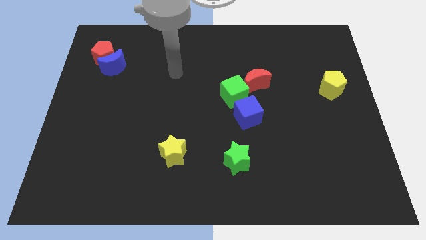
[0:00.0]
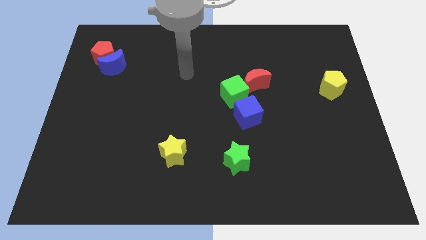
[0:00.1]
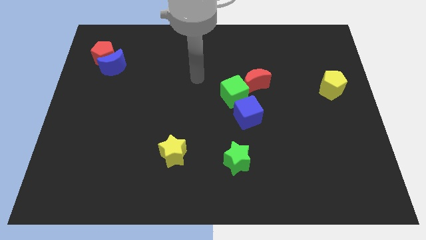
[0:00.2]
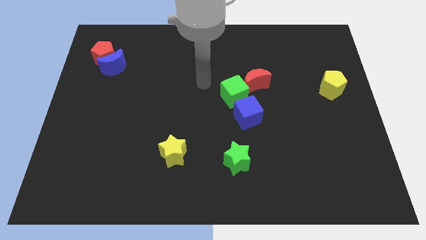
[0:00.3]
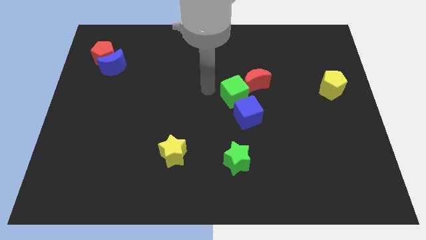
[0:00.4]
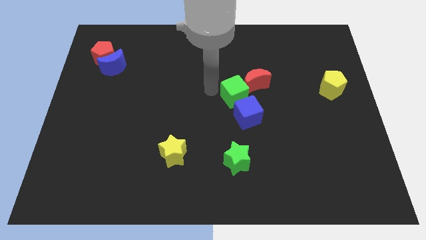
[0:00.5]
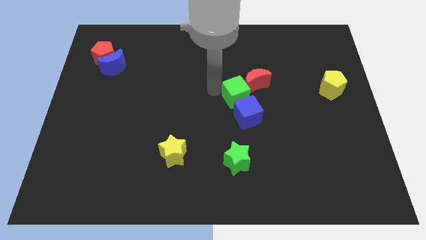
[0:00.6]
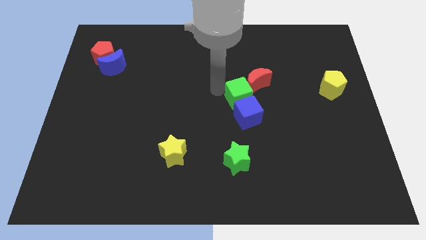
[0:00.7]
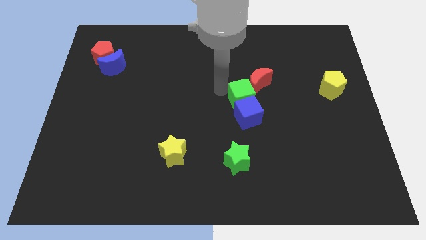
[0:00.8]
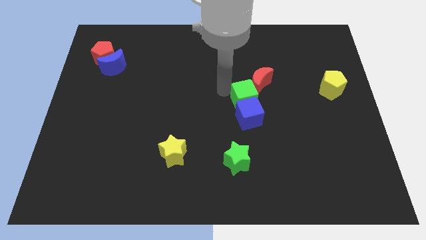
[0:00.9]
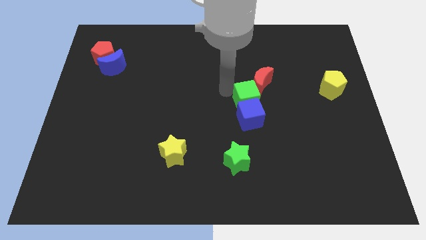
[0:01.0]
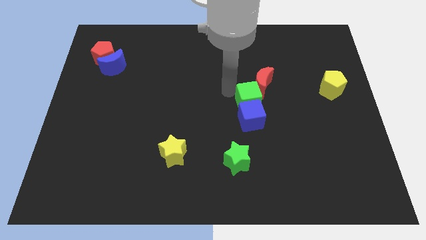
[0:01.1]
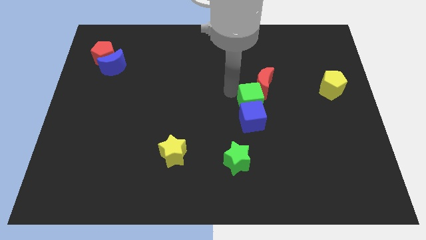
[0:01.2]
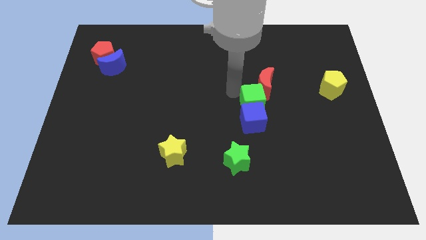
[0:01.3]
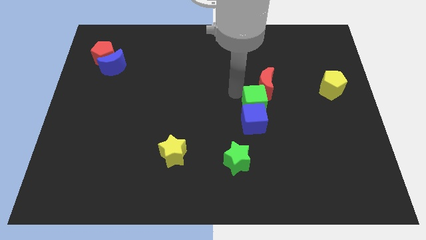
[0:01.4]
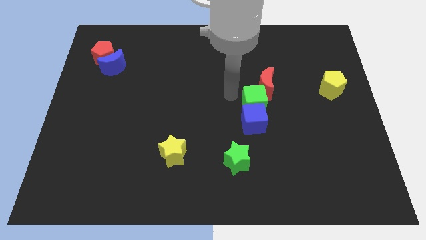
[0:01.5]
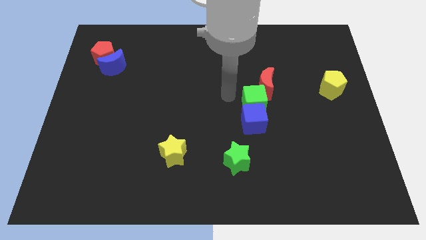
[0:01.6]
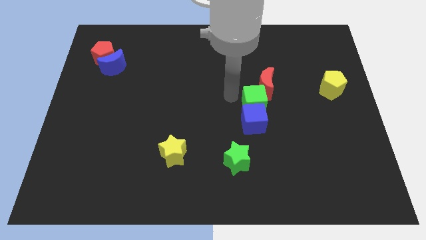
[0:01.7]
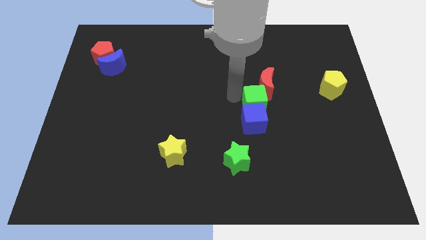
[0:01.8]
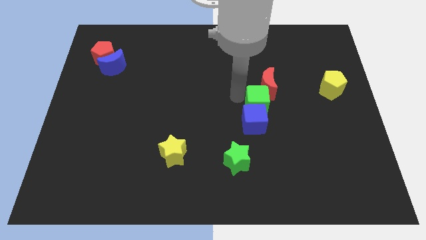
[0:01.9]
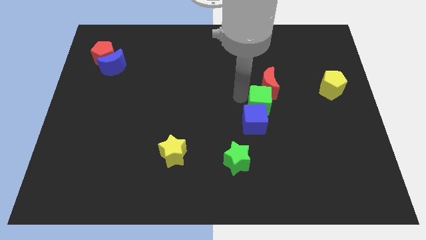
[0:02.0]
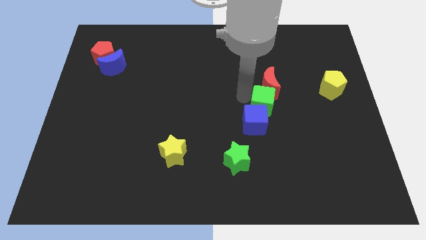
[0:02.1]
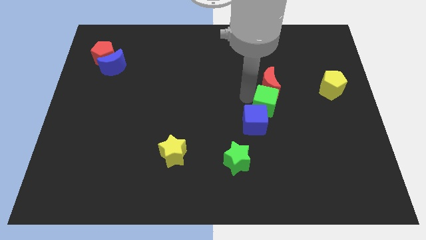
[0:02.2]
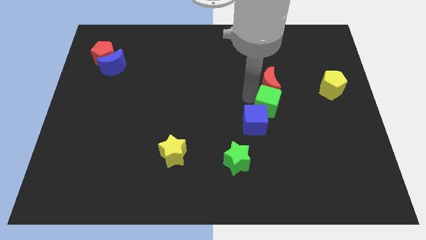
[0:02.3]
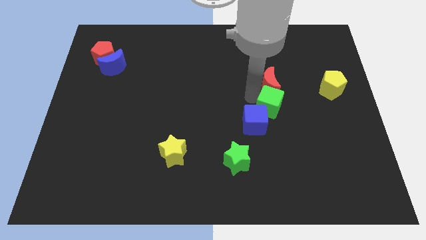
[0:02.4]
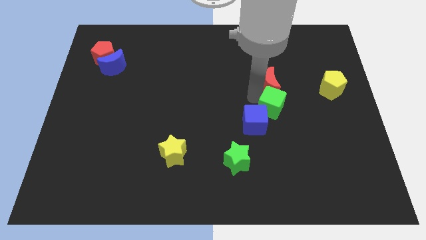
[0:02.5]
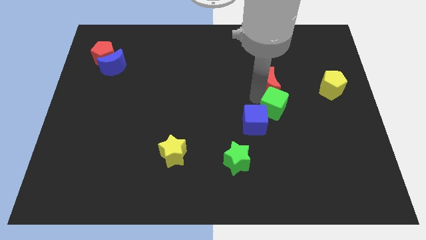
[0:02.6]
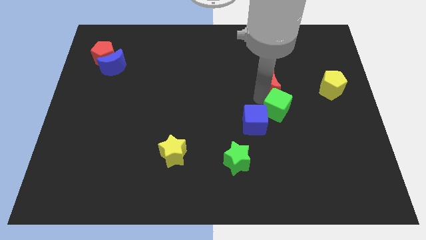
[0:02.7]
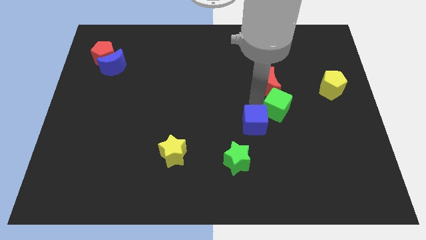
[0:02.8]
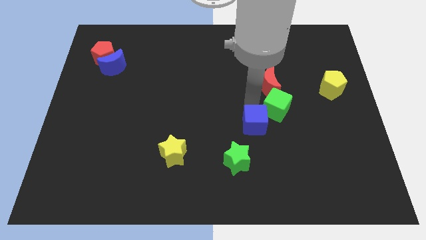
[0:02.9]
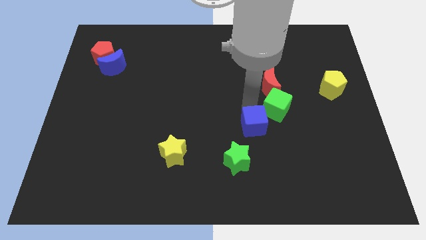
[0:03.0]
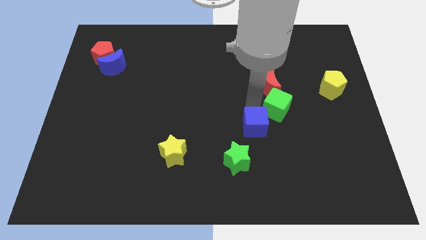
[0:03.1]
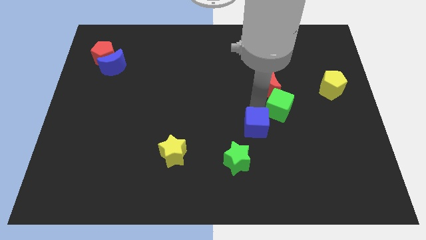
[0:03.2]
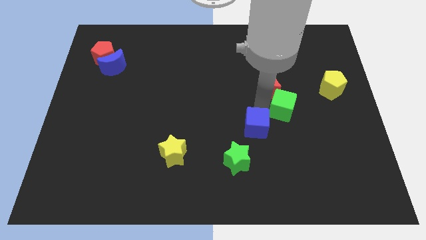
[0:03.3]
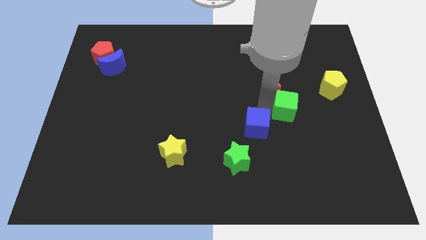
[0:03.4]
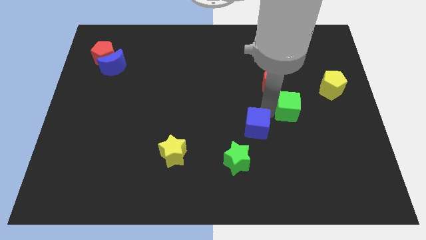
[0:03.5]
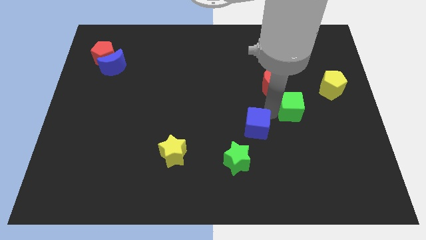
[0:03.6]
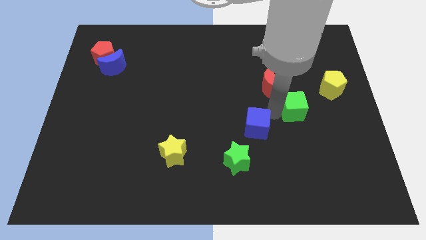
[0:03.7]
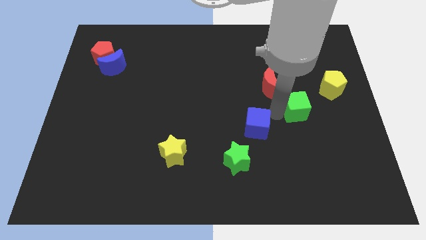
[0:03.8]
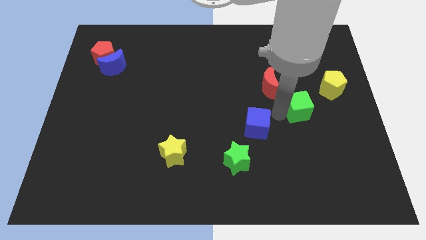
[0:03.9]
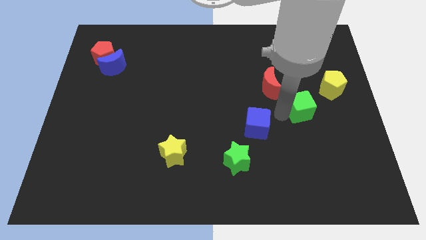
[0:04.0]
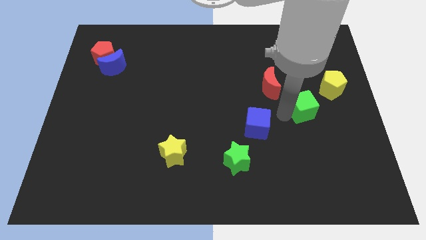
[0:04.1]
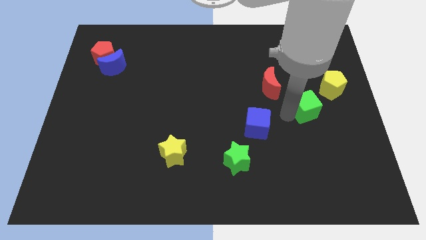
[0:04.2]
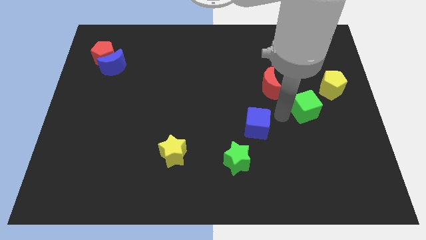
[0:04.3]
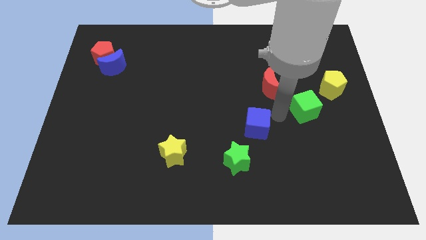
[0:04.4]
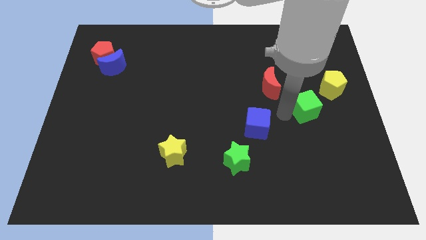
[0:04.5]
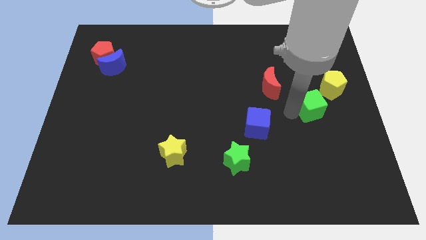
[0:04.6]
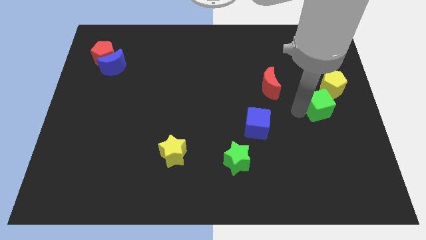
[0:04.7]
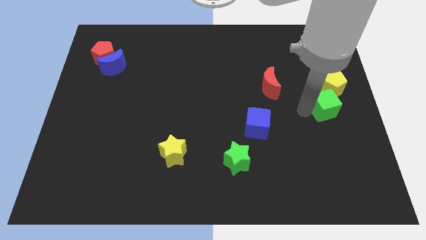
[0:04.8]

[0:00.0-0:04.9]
put the green cube to the center right

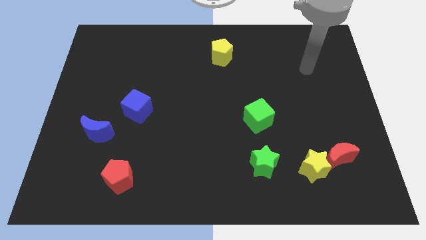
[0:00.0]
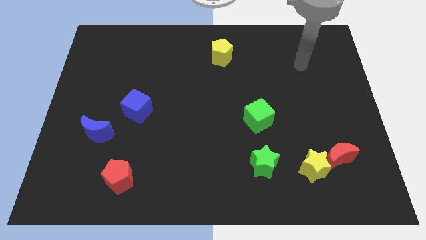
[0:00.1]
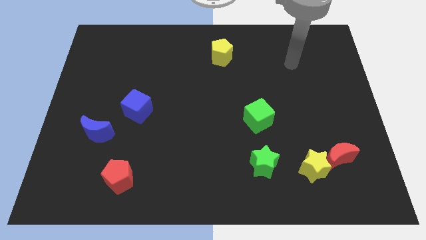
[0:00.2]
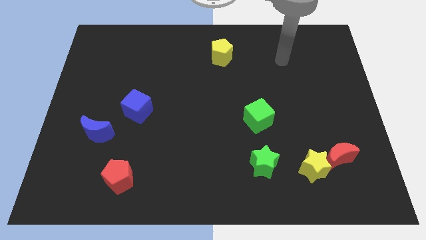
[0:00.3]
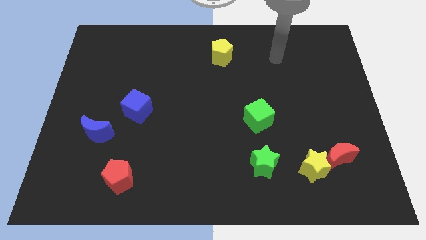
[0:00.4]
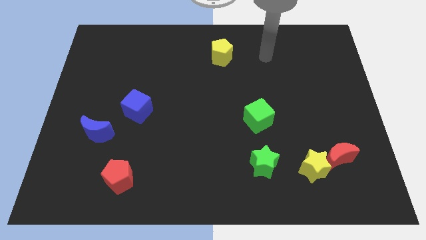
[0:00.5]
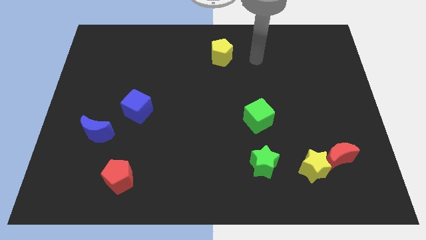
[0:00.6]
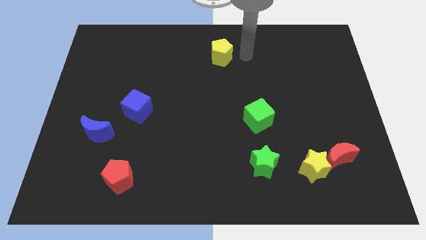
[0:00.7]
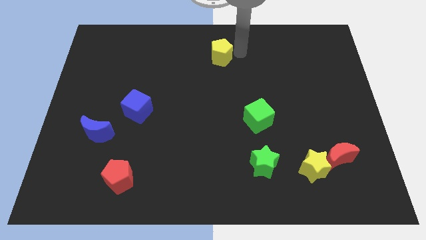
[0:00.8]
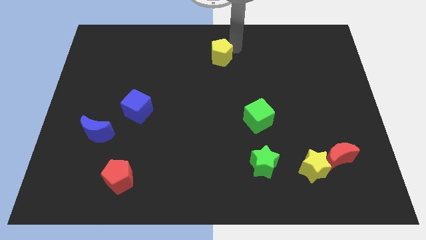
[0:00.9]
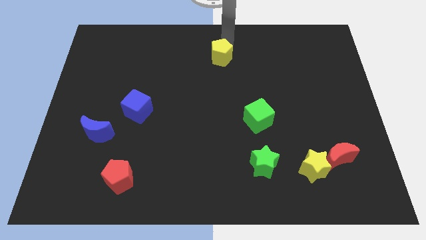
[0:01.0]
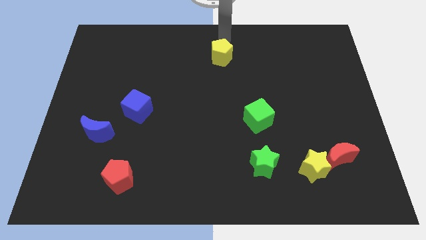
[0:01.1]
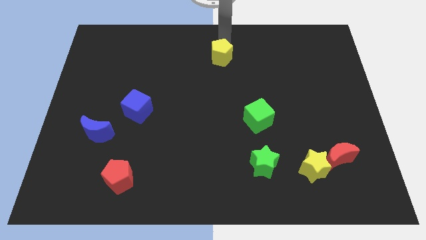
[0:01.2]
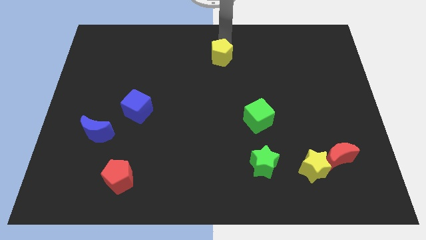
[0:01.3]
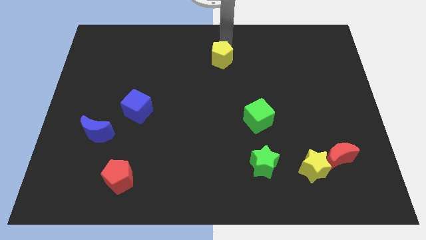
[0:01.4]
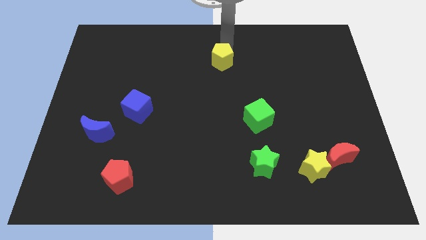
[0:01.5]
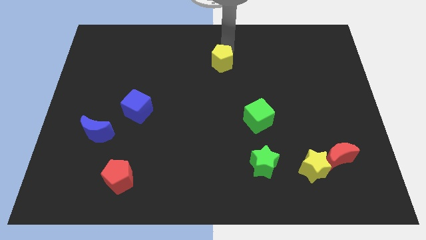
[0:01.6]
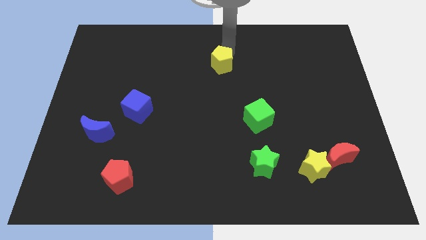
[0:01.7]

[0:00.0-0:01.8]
put the yellow pentagon to the center of the board

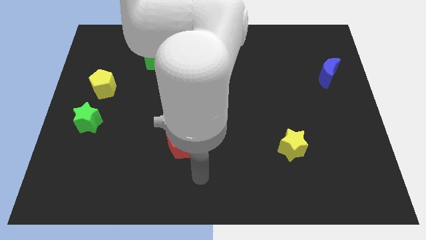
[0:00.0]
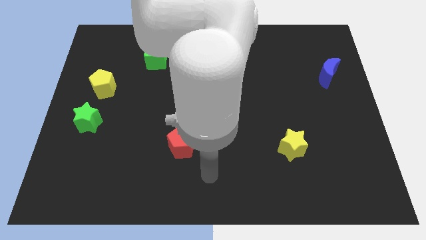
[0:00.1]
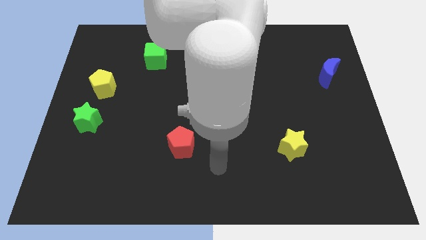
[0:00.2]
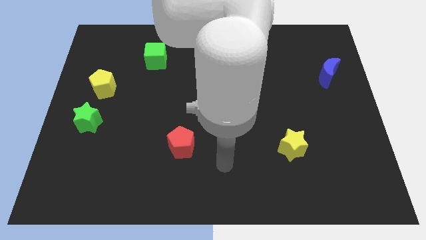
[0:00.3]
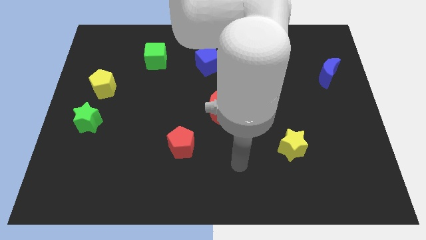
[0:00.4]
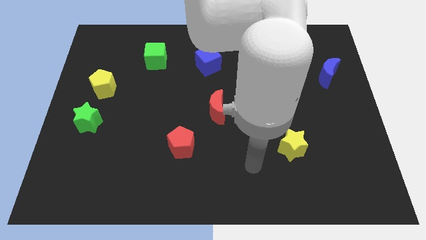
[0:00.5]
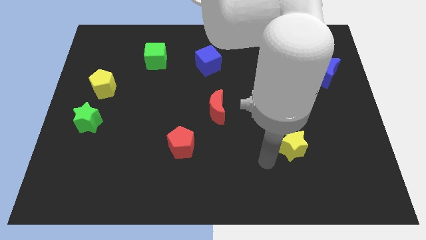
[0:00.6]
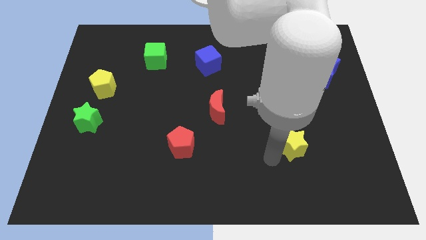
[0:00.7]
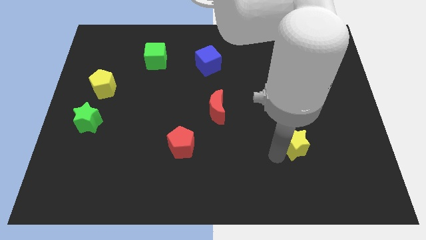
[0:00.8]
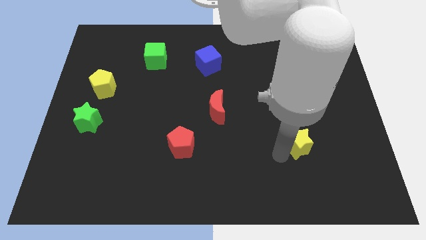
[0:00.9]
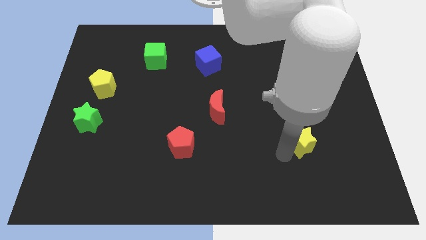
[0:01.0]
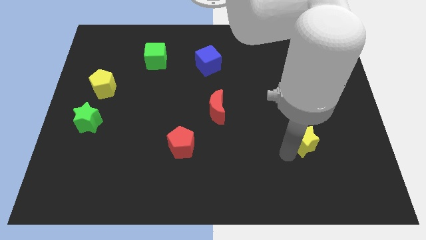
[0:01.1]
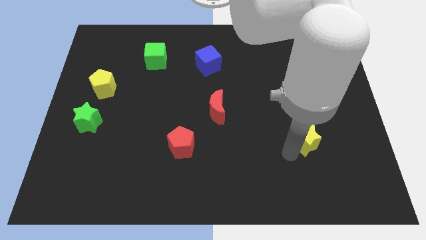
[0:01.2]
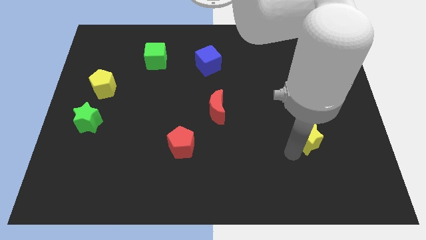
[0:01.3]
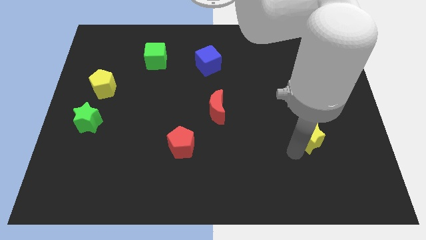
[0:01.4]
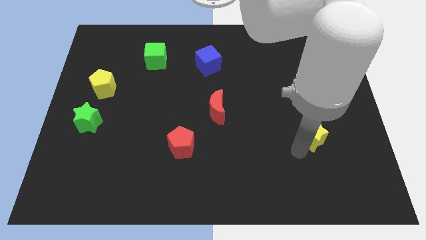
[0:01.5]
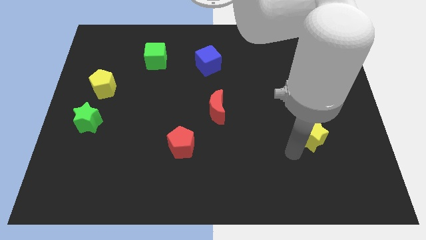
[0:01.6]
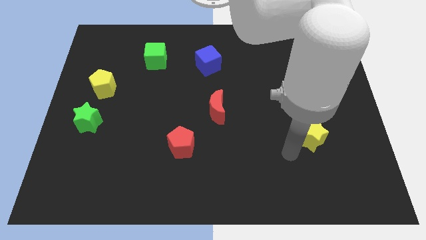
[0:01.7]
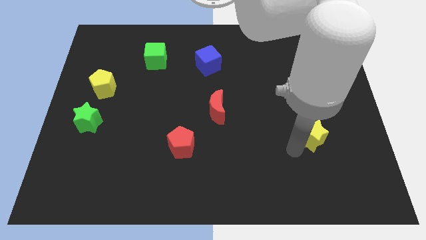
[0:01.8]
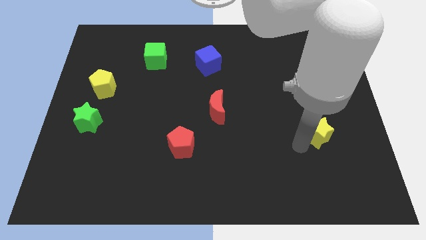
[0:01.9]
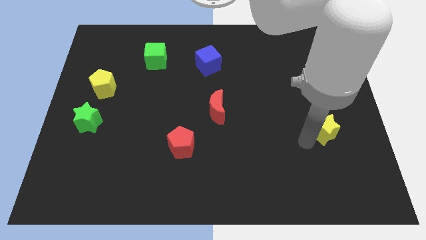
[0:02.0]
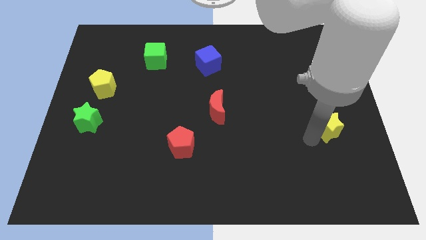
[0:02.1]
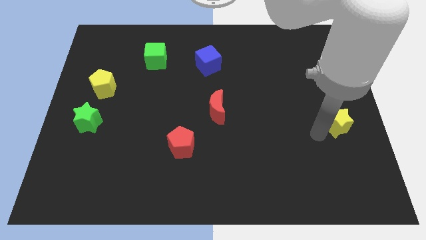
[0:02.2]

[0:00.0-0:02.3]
push the yellow star to the right side of the board
